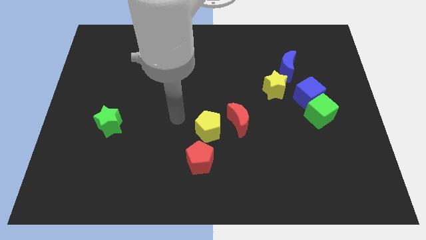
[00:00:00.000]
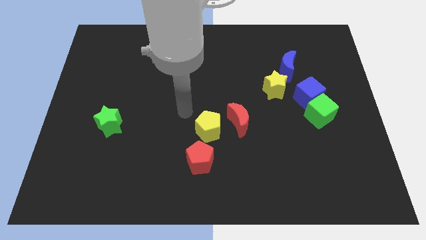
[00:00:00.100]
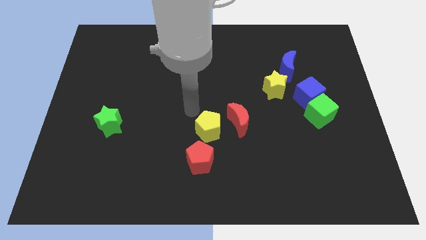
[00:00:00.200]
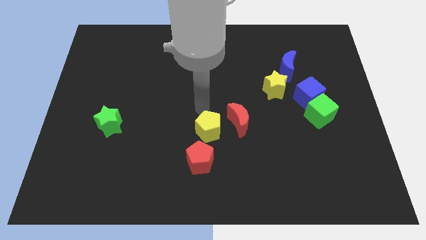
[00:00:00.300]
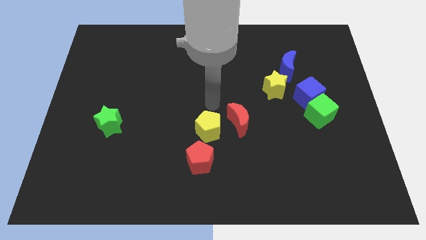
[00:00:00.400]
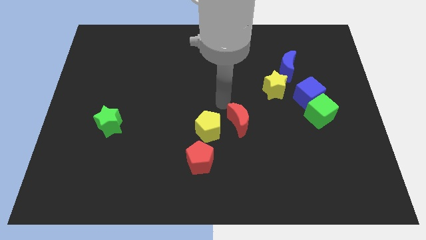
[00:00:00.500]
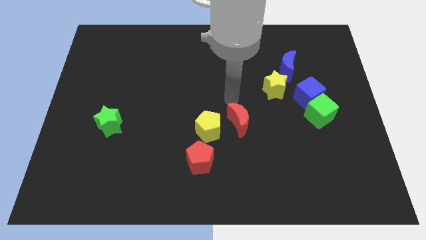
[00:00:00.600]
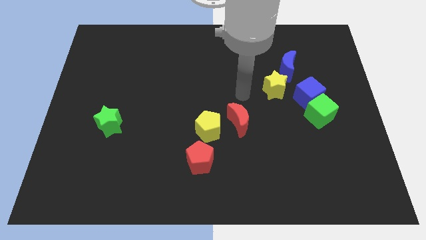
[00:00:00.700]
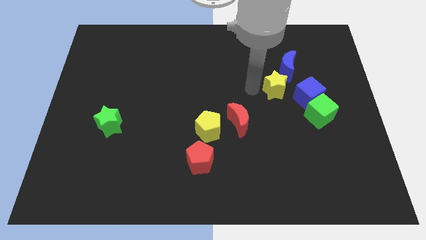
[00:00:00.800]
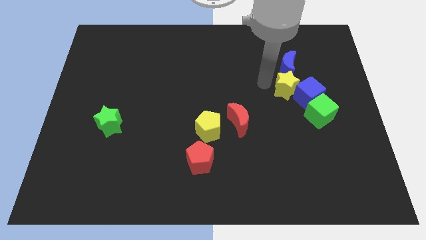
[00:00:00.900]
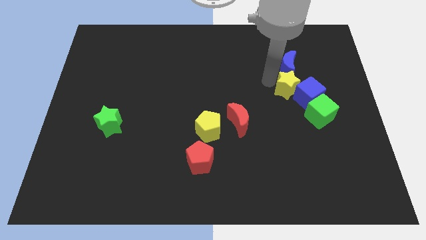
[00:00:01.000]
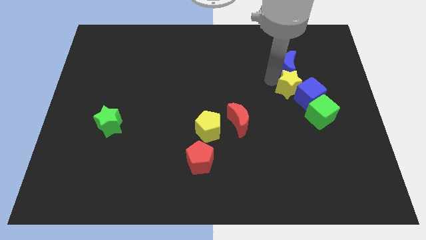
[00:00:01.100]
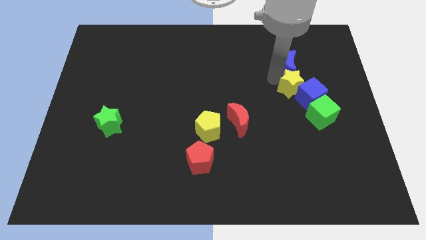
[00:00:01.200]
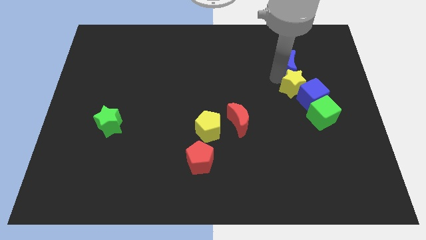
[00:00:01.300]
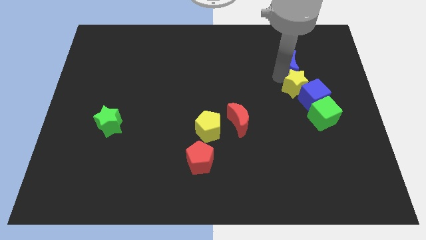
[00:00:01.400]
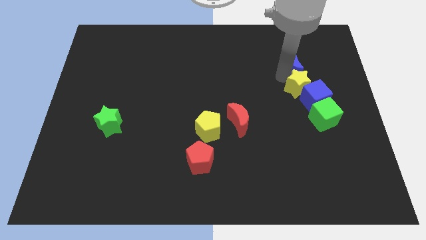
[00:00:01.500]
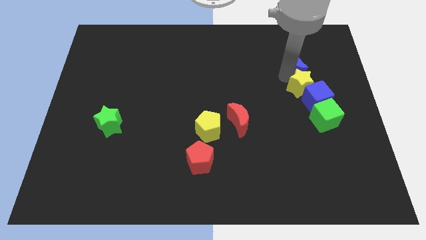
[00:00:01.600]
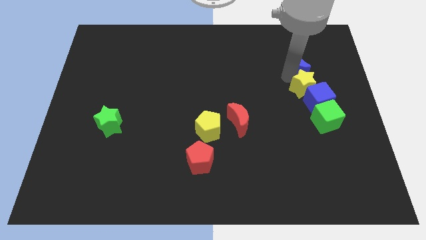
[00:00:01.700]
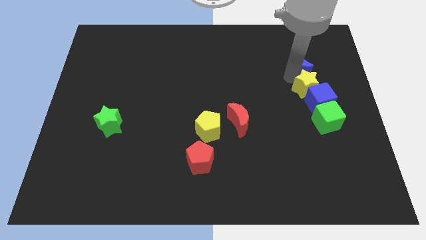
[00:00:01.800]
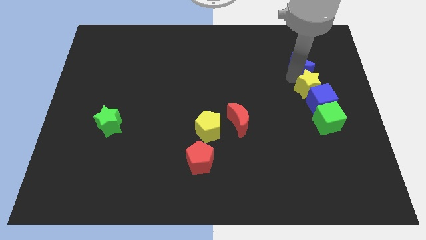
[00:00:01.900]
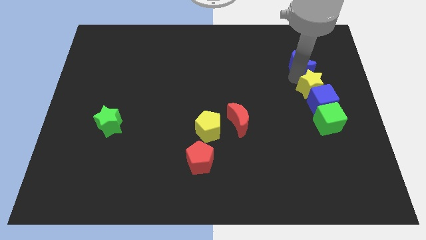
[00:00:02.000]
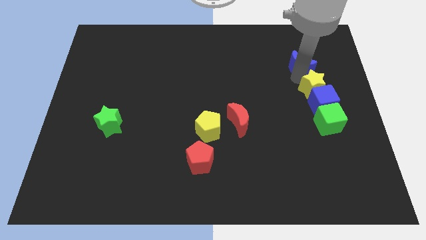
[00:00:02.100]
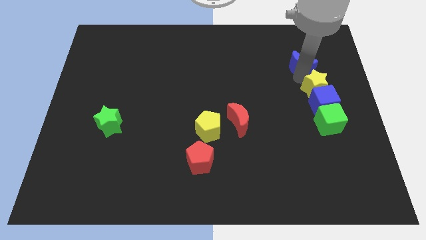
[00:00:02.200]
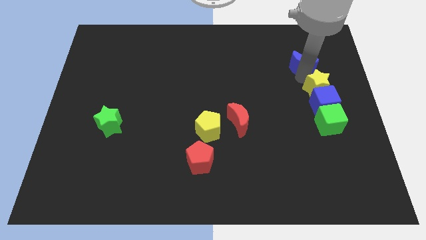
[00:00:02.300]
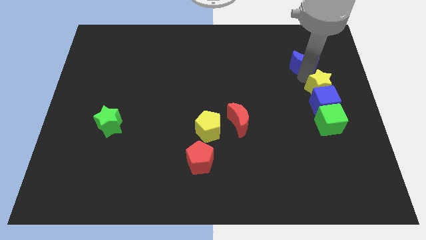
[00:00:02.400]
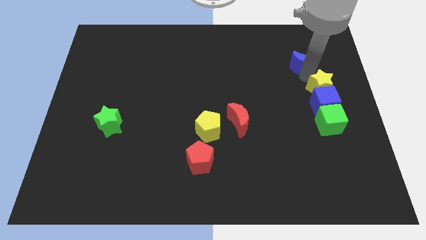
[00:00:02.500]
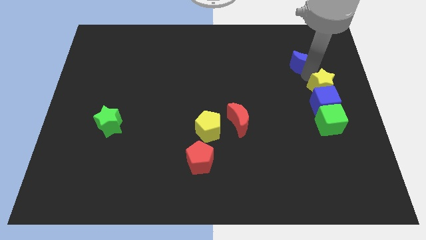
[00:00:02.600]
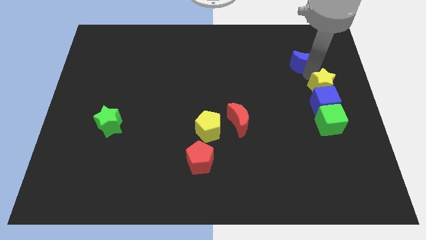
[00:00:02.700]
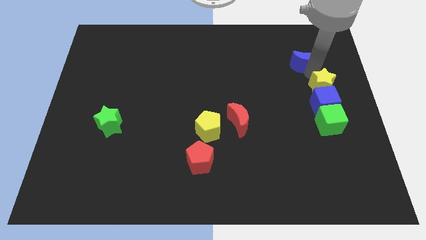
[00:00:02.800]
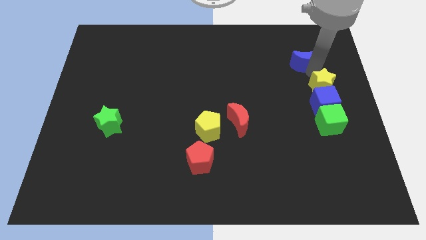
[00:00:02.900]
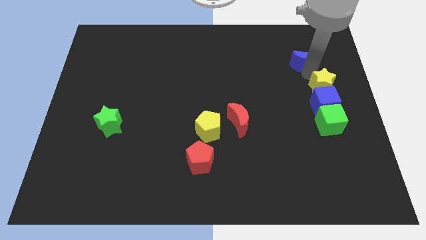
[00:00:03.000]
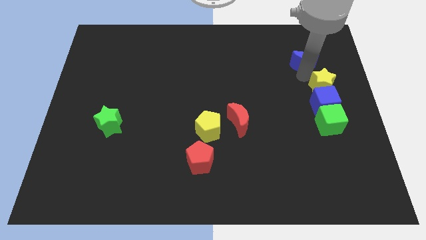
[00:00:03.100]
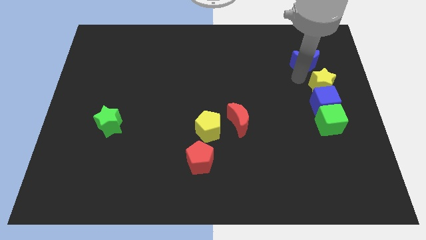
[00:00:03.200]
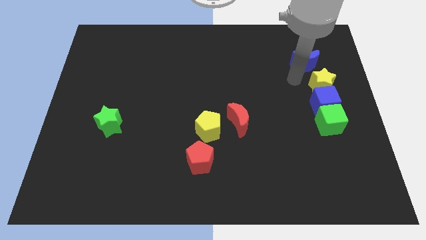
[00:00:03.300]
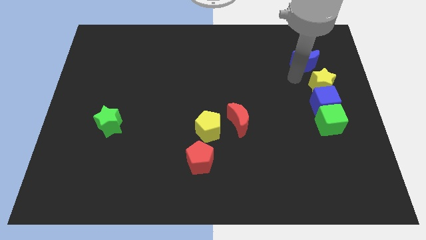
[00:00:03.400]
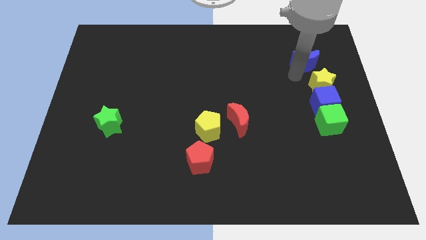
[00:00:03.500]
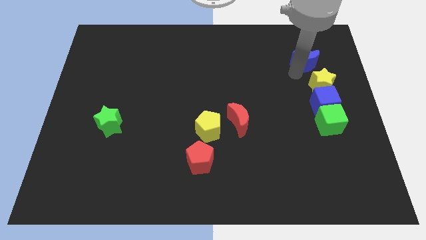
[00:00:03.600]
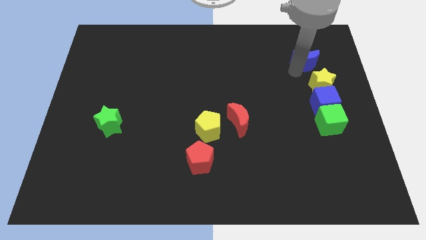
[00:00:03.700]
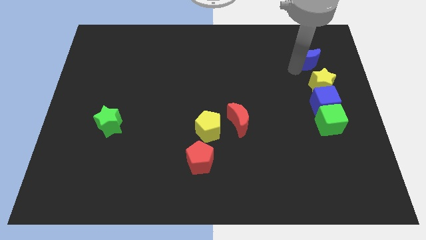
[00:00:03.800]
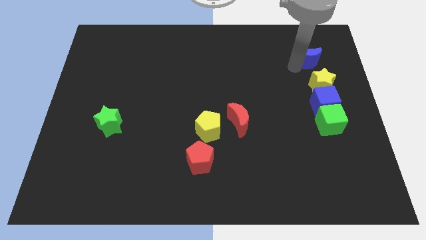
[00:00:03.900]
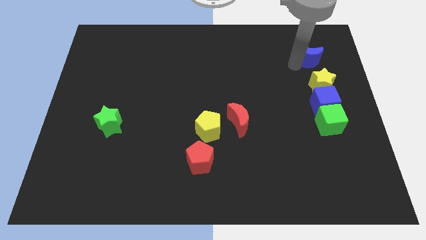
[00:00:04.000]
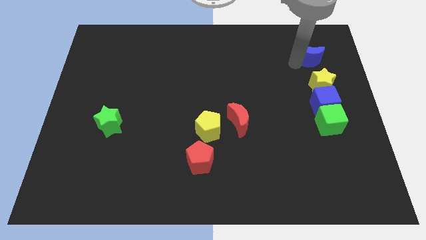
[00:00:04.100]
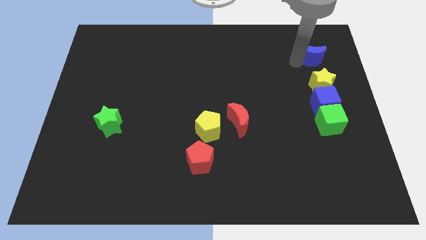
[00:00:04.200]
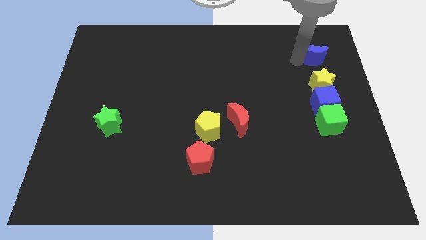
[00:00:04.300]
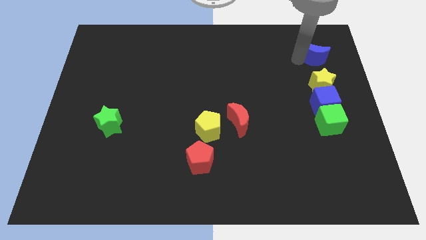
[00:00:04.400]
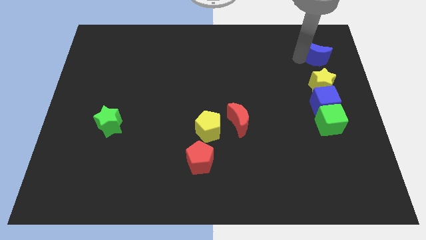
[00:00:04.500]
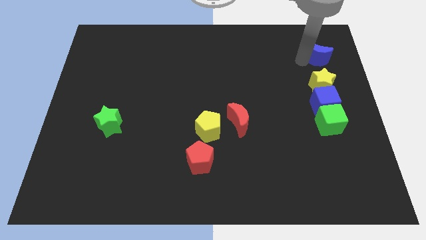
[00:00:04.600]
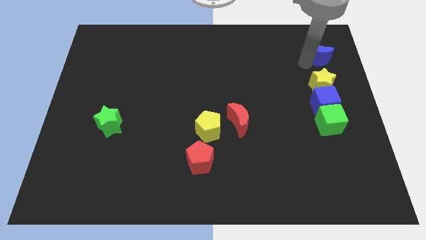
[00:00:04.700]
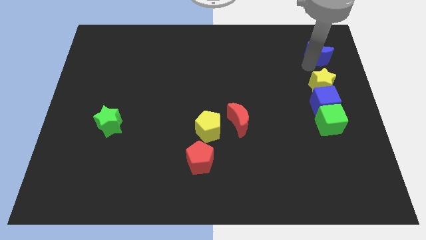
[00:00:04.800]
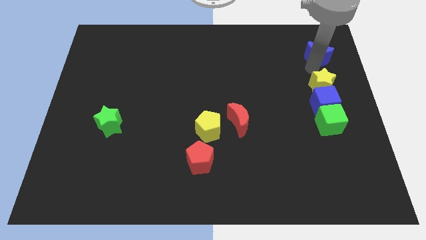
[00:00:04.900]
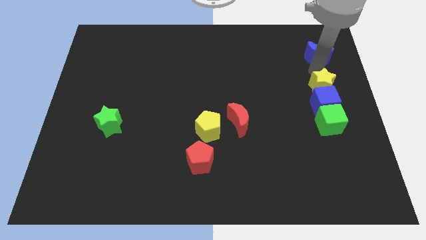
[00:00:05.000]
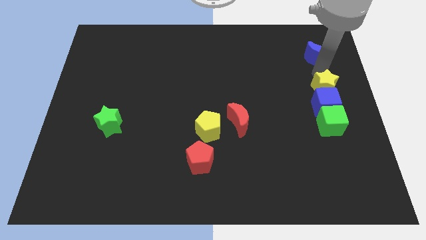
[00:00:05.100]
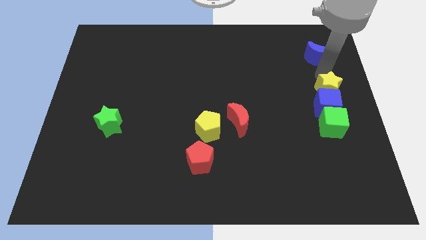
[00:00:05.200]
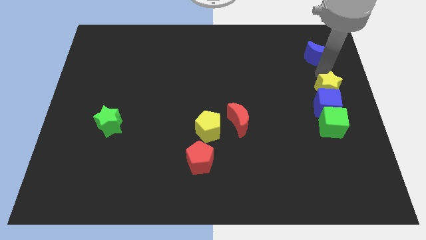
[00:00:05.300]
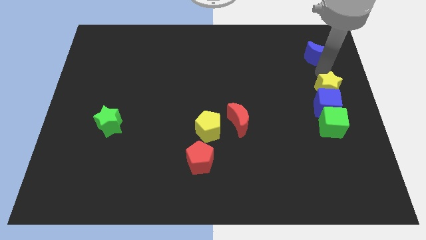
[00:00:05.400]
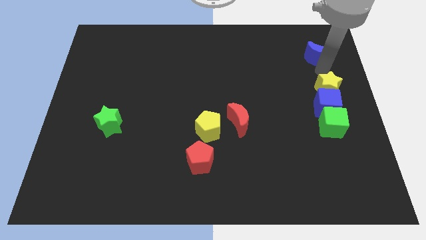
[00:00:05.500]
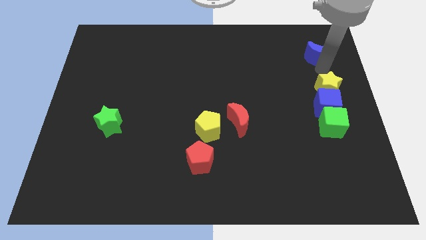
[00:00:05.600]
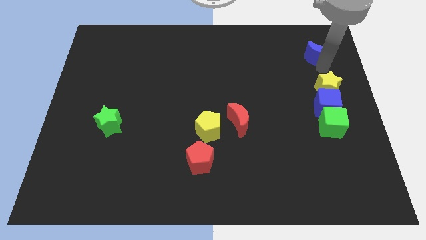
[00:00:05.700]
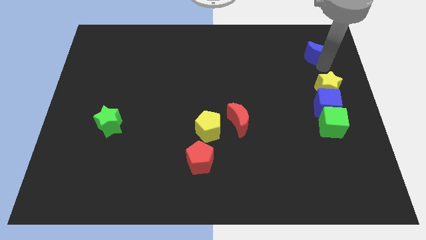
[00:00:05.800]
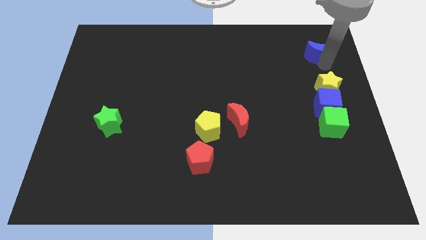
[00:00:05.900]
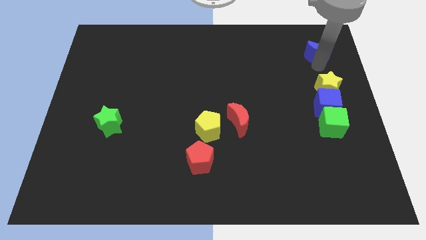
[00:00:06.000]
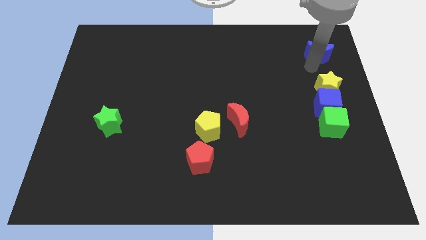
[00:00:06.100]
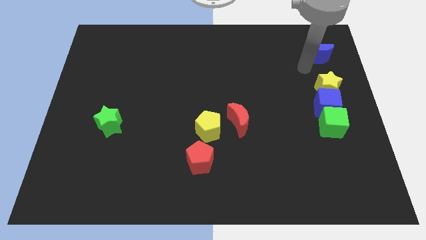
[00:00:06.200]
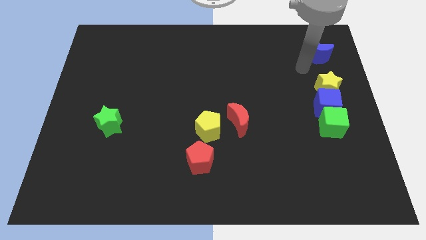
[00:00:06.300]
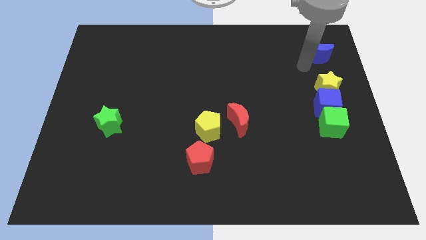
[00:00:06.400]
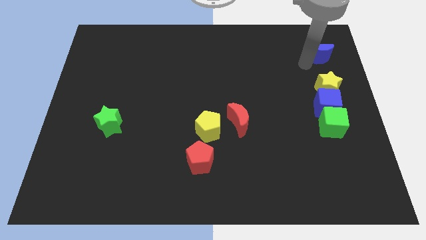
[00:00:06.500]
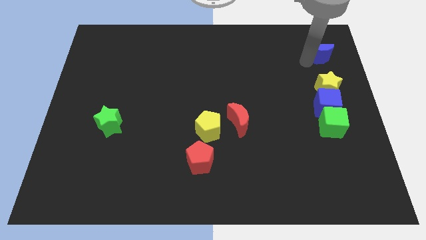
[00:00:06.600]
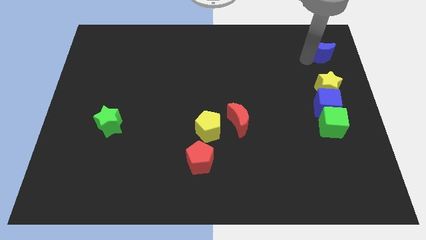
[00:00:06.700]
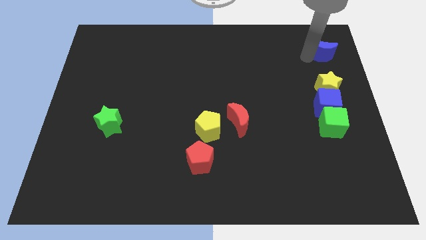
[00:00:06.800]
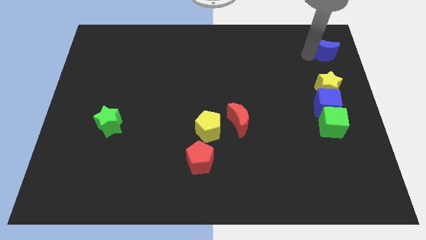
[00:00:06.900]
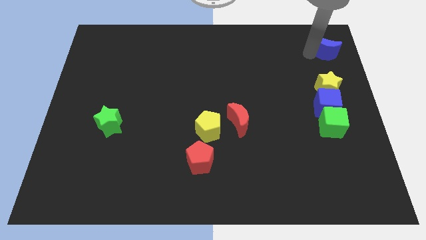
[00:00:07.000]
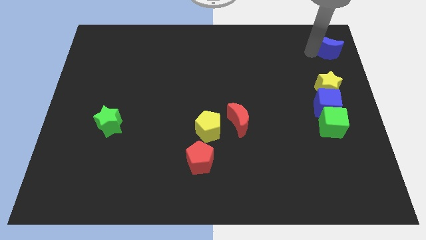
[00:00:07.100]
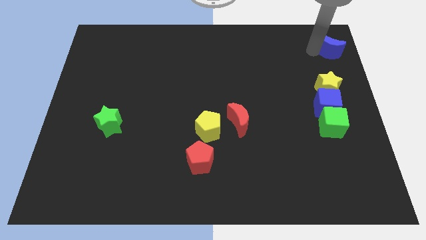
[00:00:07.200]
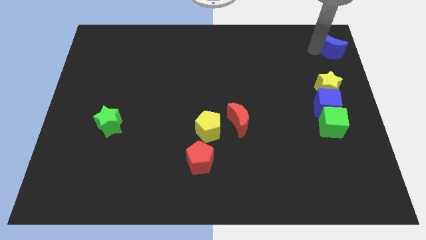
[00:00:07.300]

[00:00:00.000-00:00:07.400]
put the blue moon to the upper right corner
